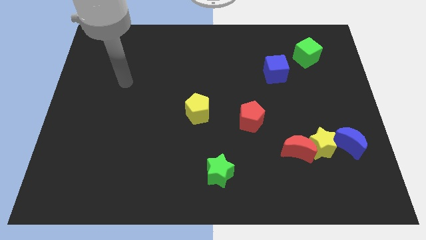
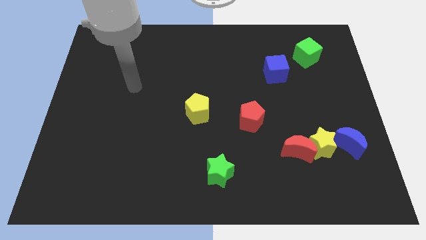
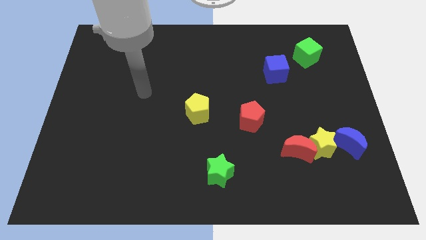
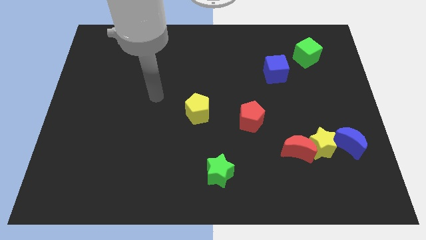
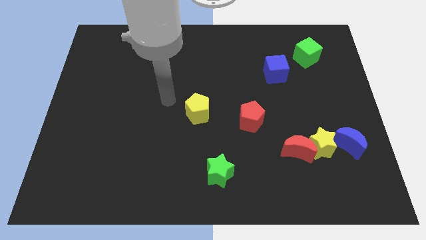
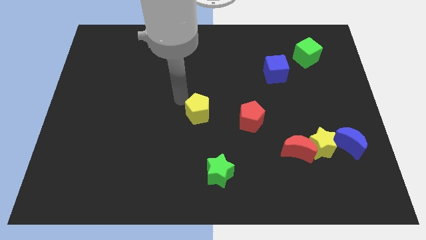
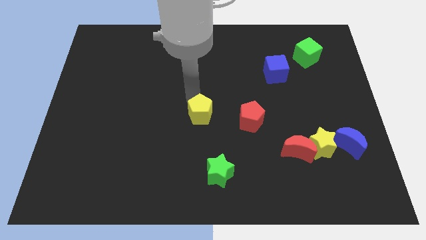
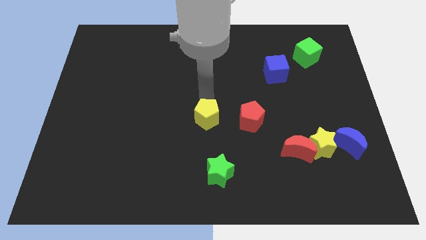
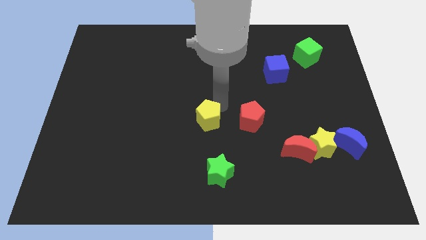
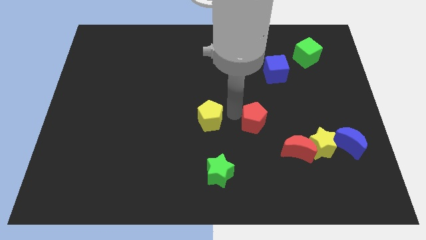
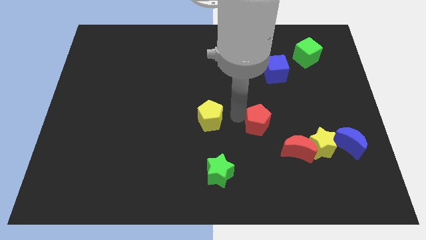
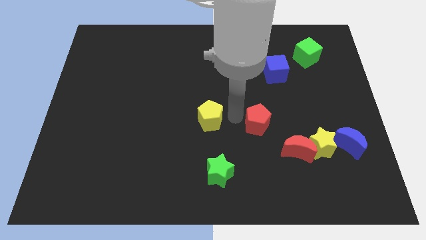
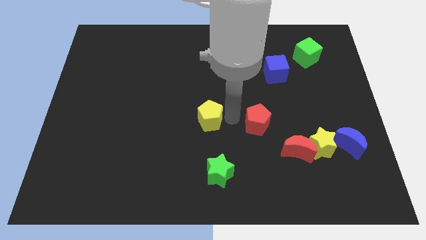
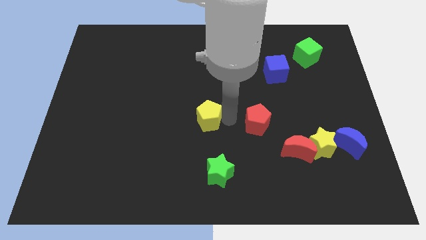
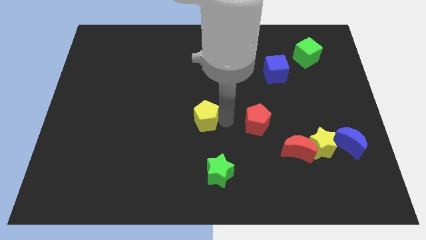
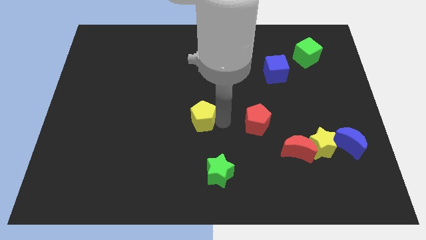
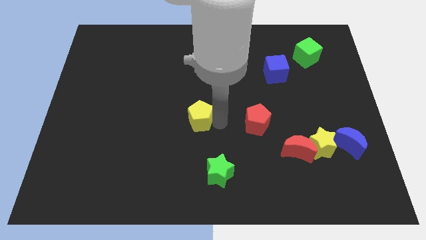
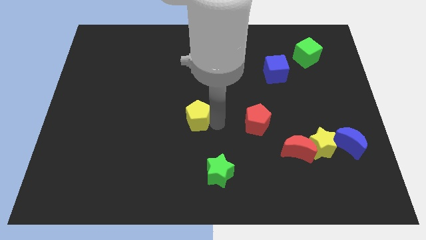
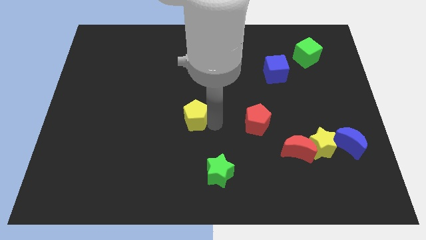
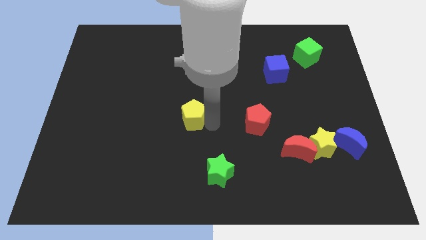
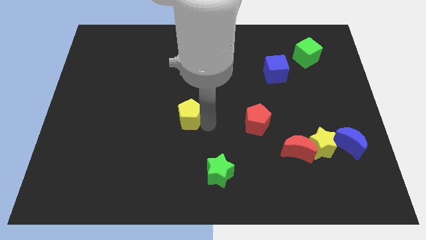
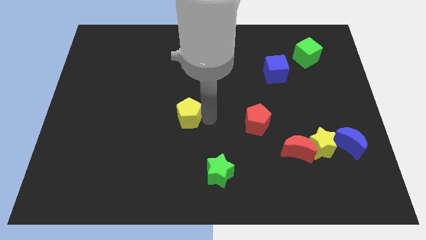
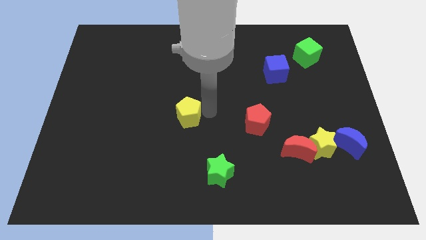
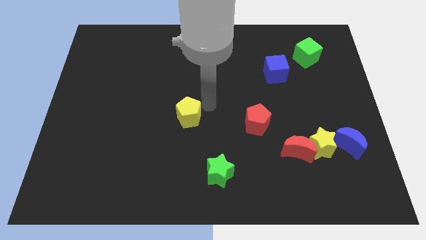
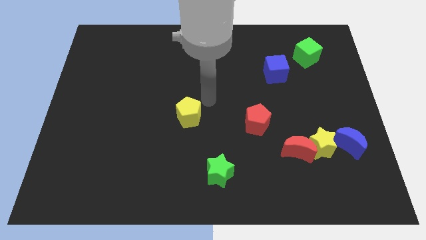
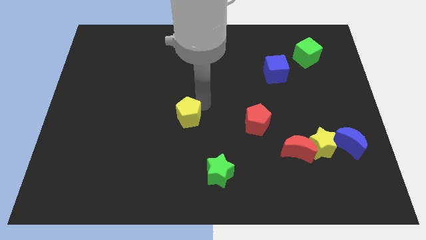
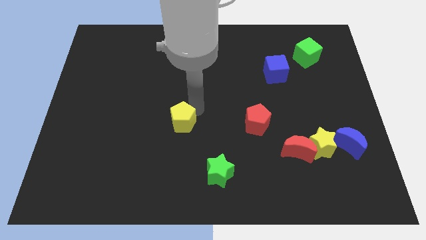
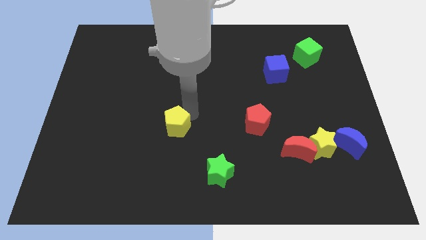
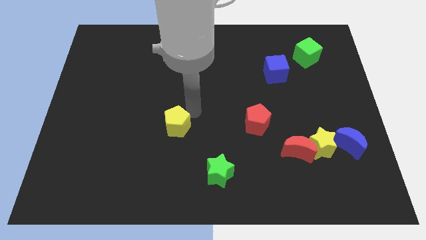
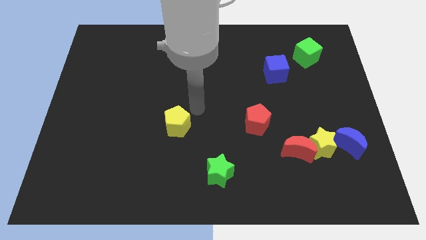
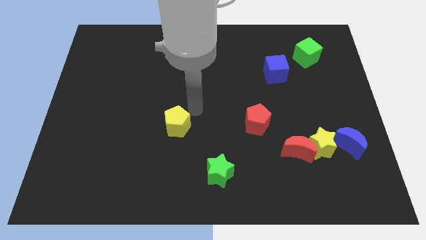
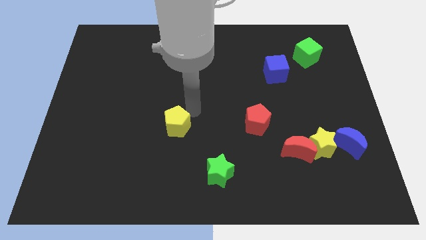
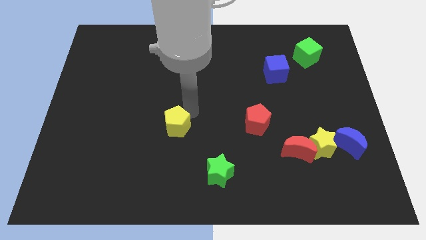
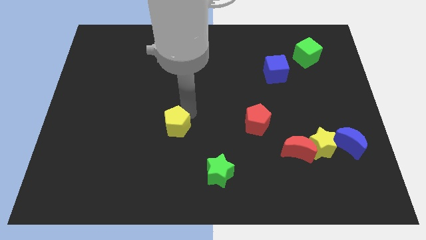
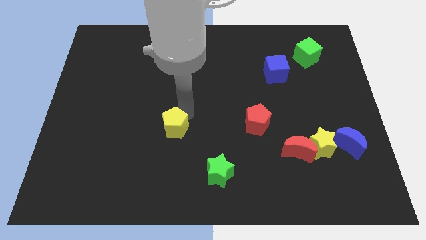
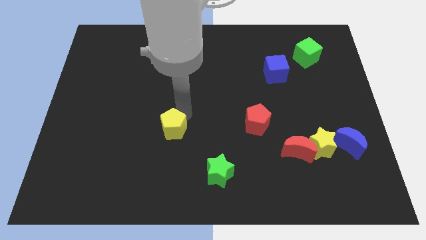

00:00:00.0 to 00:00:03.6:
slightly slide the yellow pentagon down and to the left

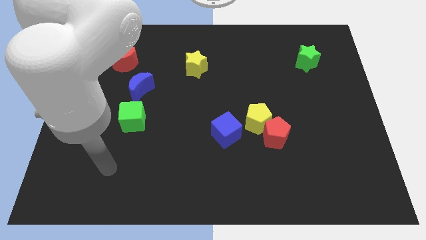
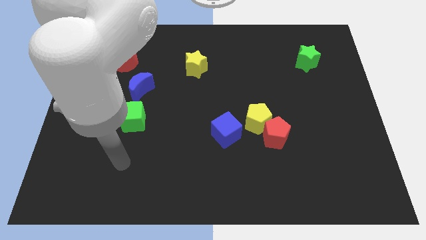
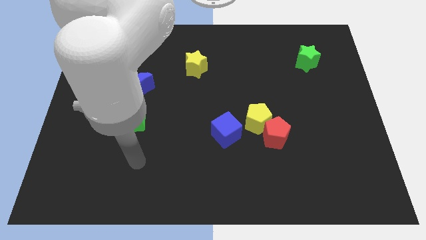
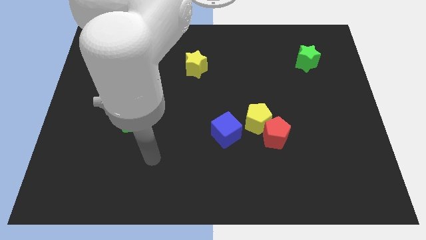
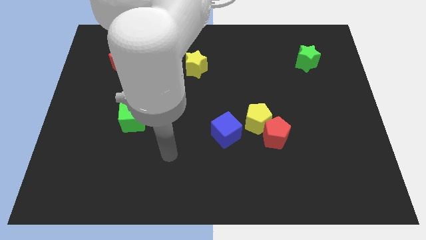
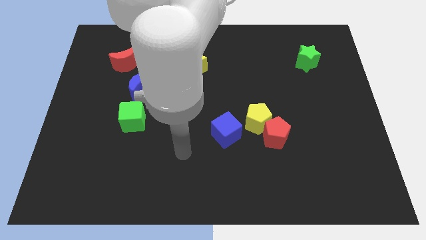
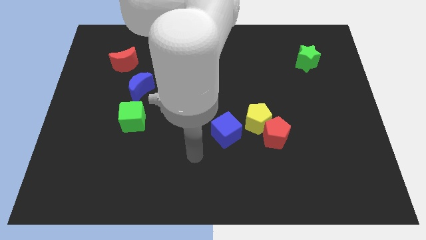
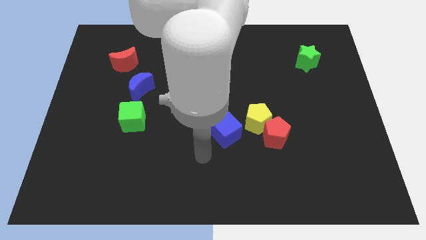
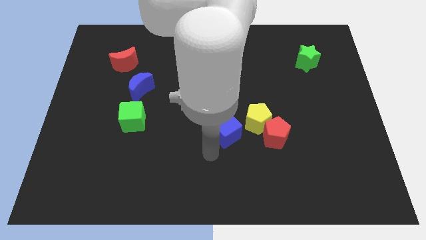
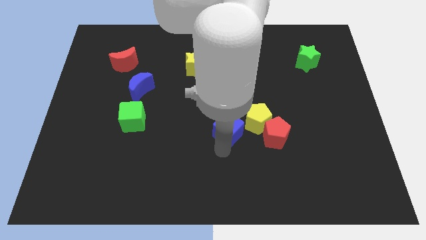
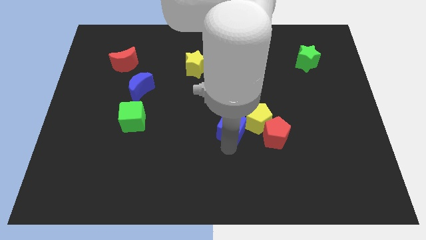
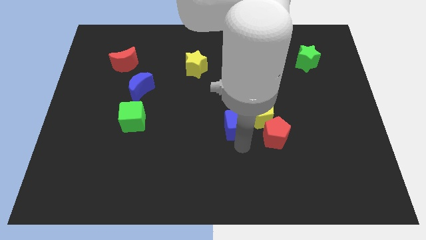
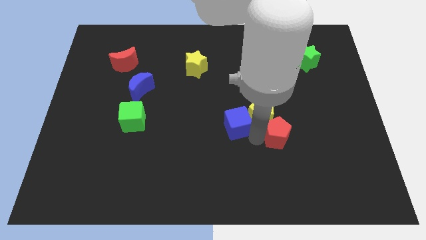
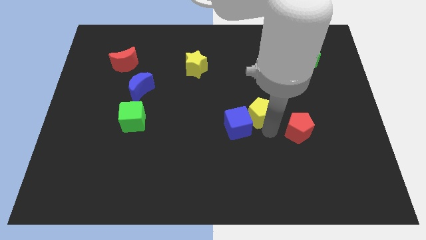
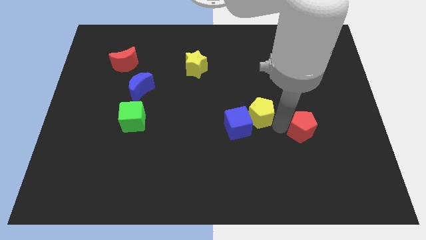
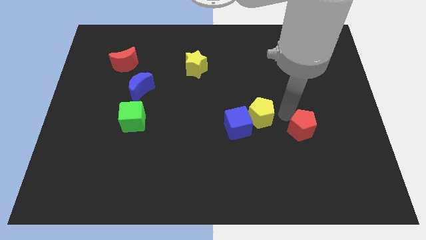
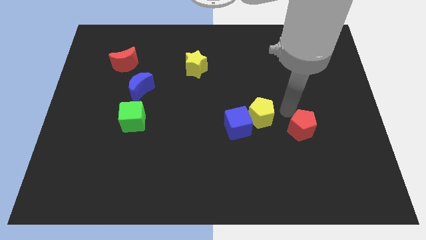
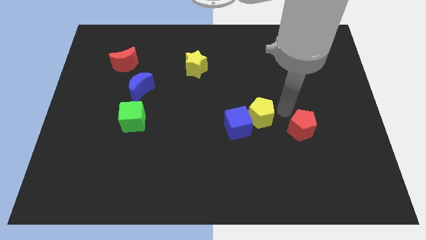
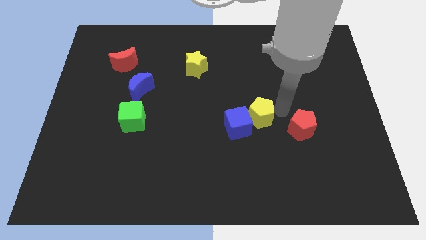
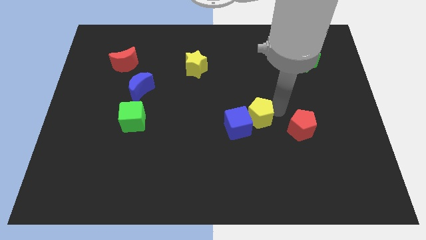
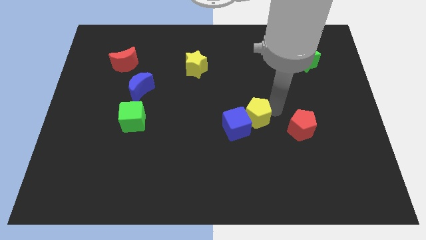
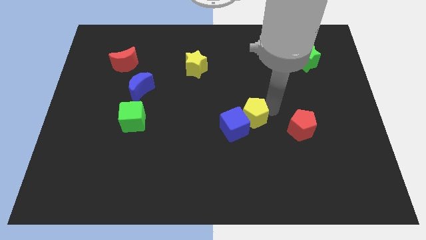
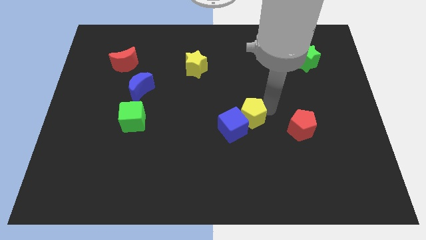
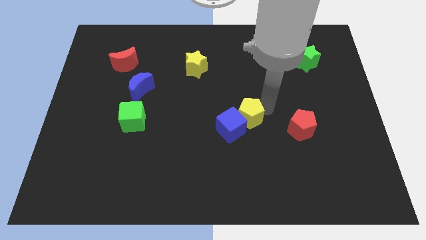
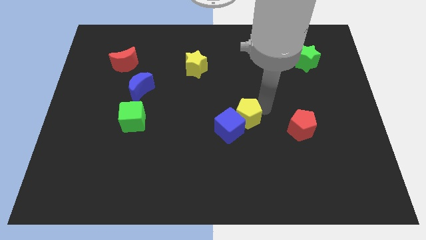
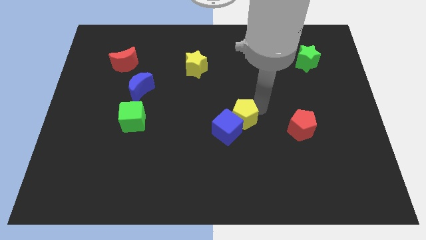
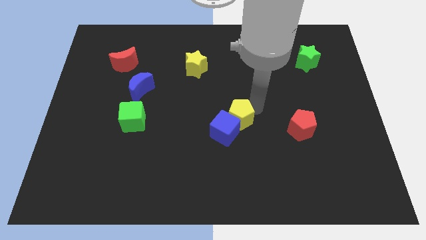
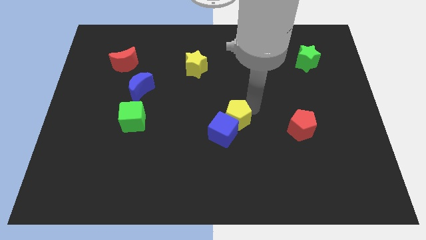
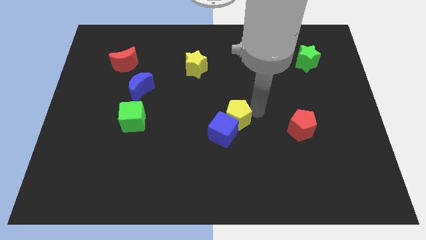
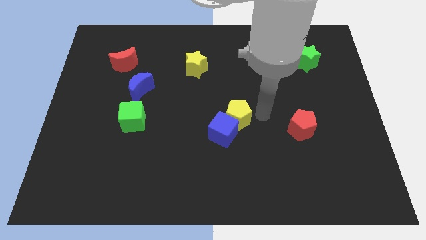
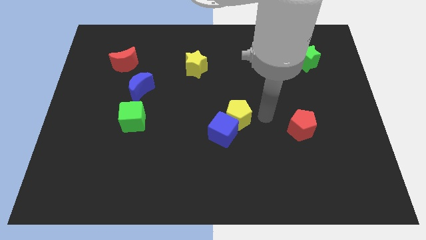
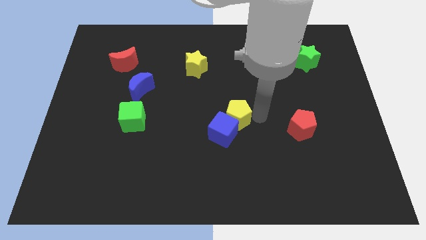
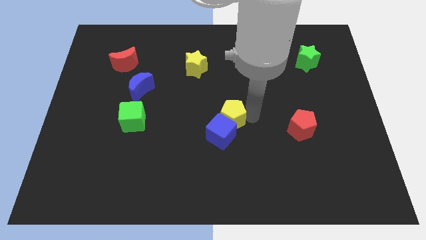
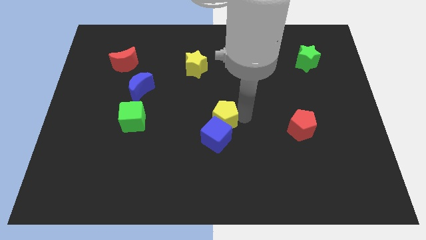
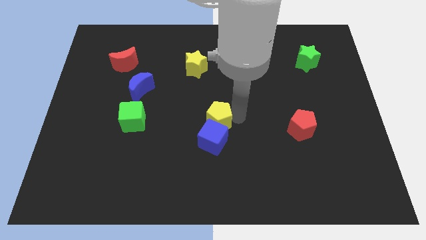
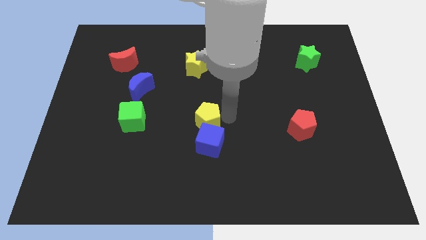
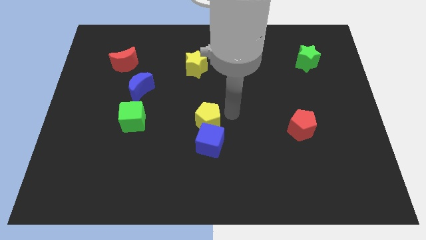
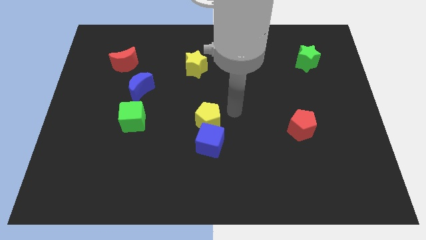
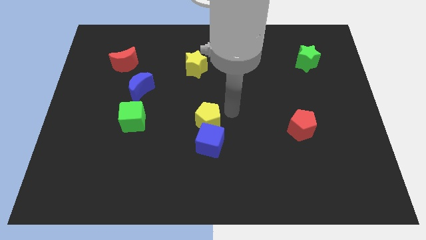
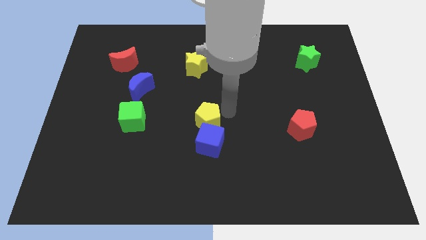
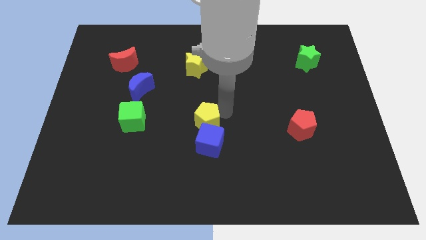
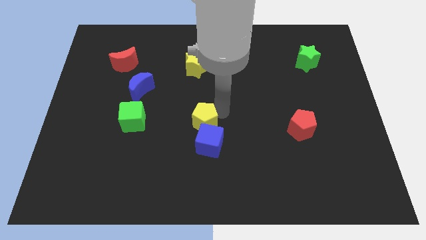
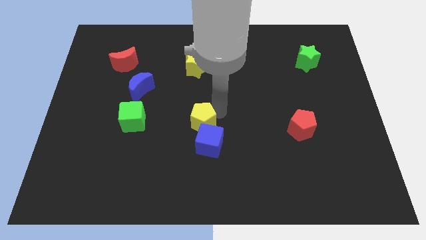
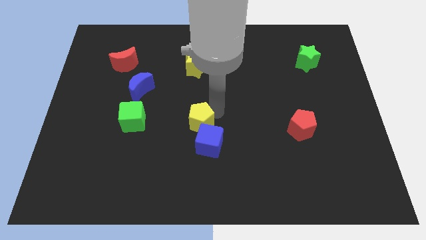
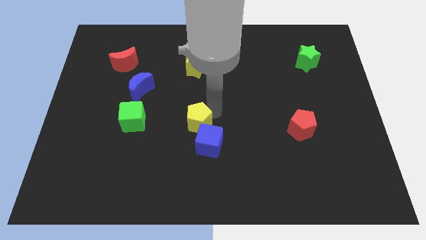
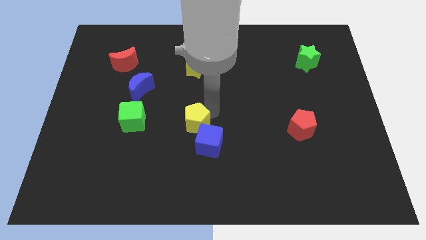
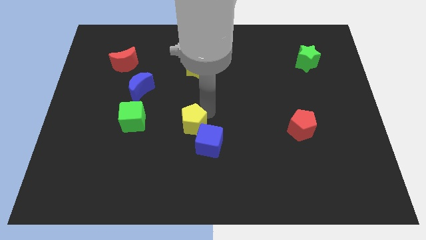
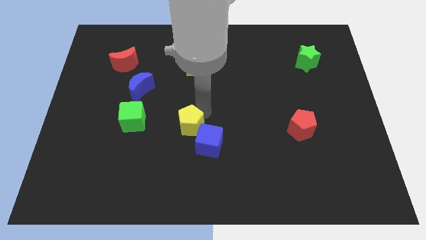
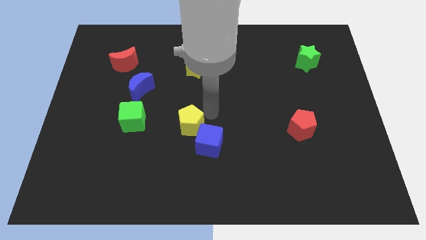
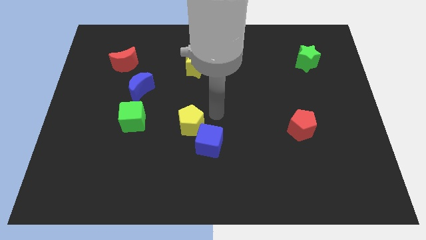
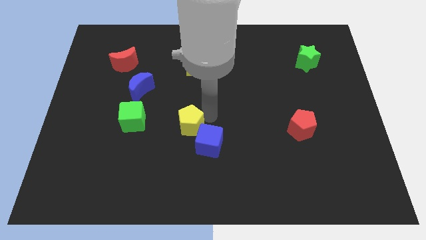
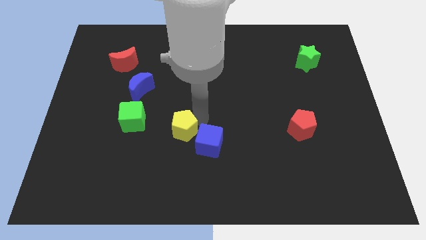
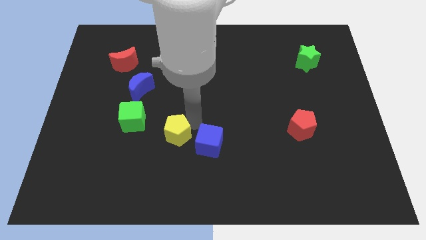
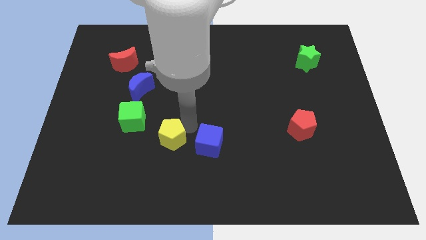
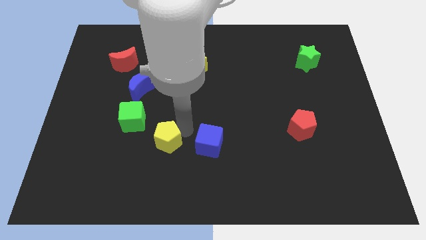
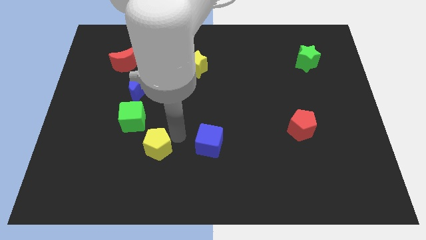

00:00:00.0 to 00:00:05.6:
push the yellow pentagon left
